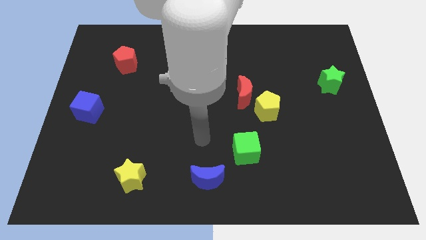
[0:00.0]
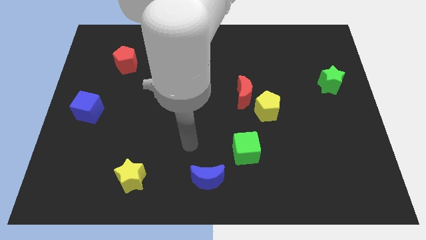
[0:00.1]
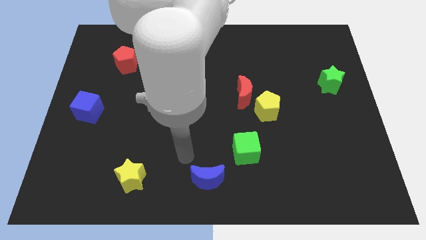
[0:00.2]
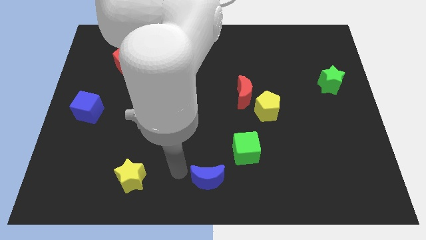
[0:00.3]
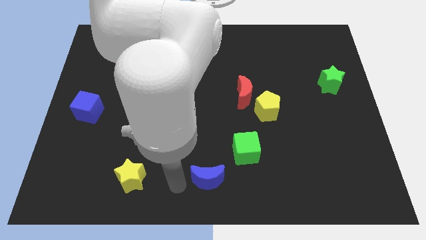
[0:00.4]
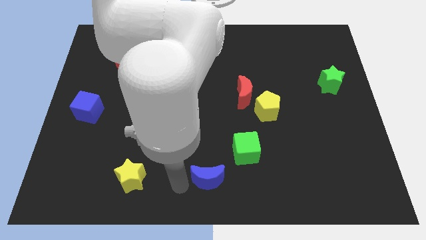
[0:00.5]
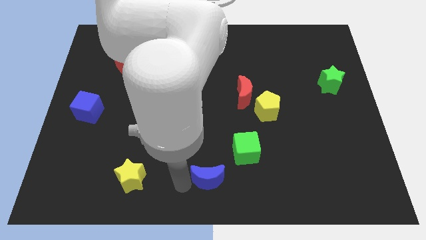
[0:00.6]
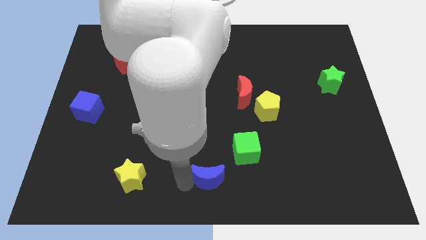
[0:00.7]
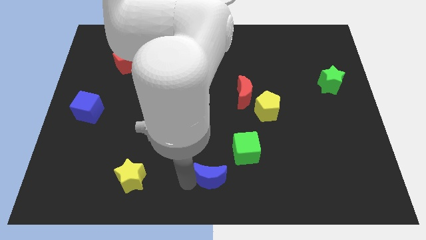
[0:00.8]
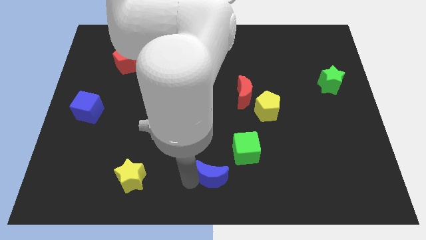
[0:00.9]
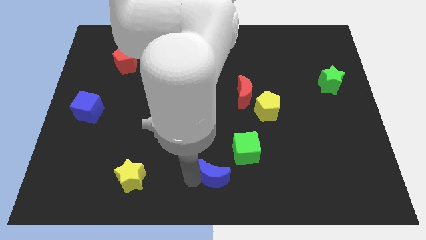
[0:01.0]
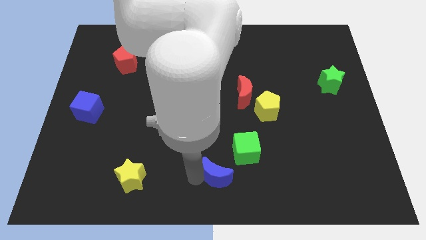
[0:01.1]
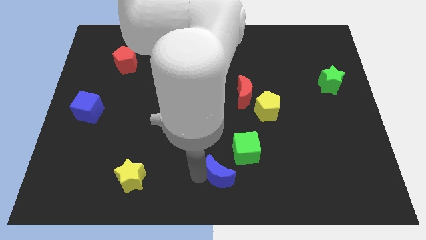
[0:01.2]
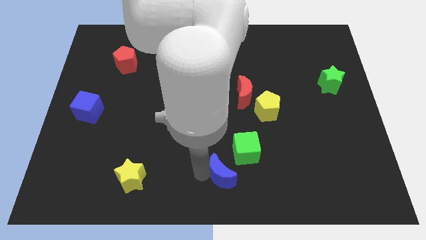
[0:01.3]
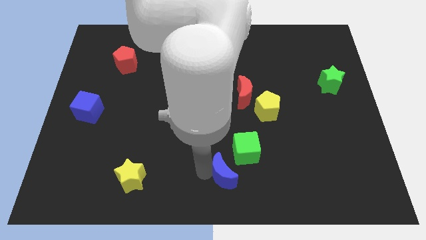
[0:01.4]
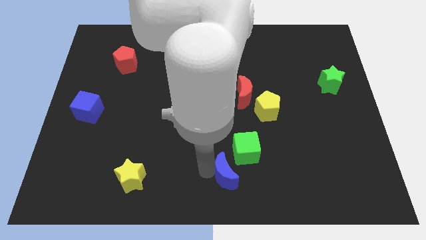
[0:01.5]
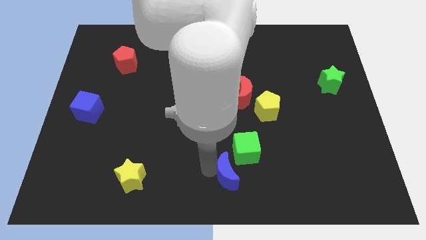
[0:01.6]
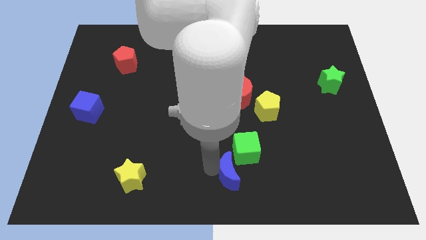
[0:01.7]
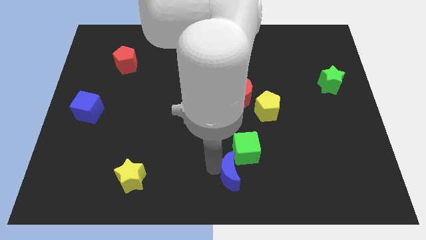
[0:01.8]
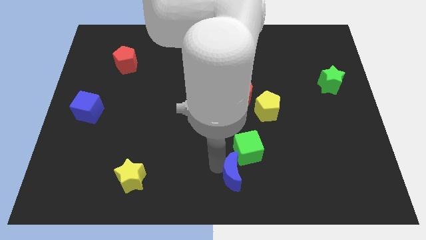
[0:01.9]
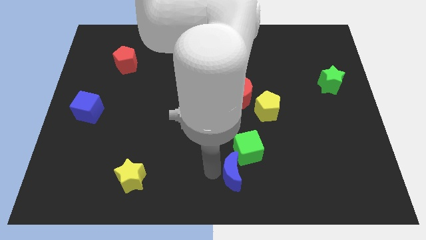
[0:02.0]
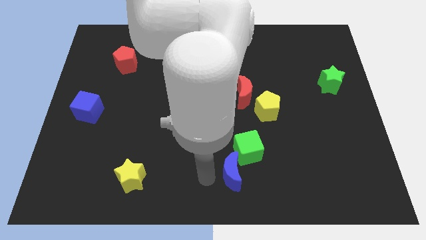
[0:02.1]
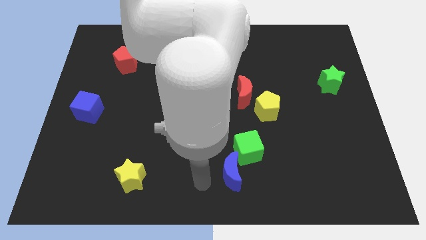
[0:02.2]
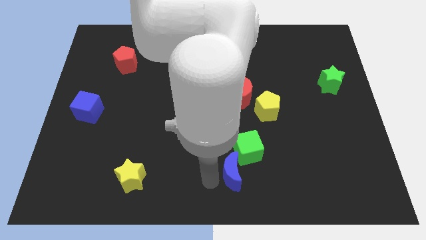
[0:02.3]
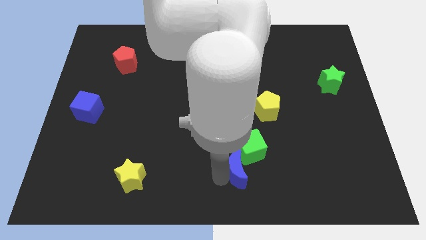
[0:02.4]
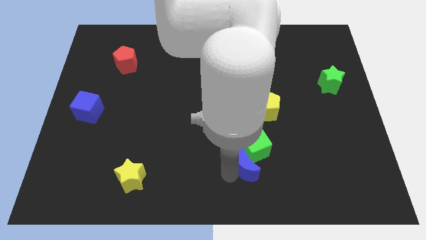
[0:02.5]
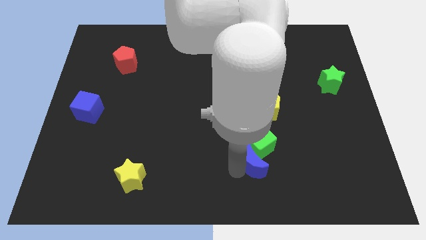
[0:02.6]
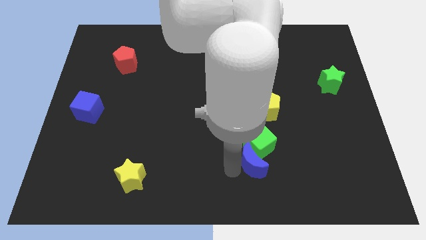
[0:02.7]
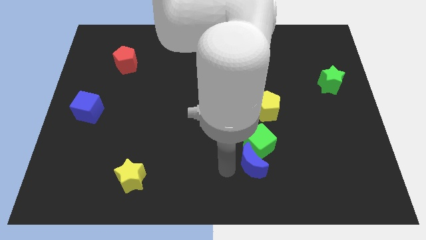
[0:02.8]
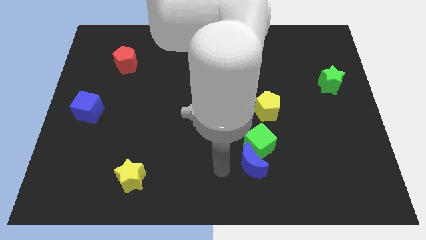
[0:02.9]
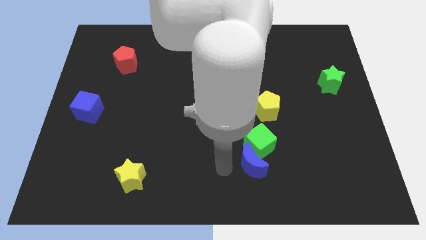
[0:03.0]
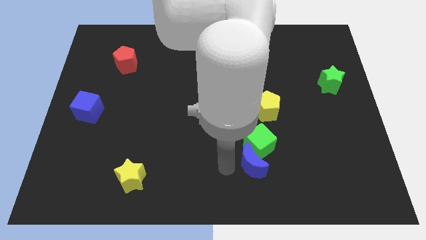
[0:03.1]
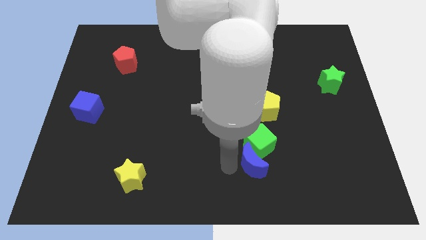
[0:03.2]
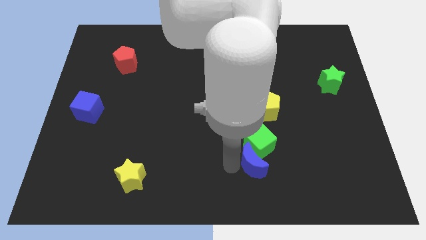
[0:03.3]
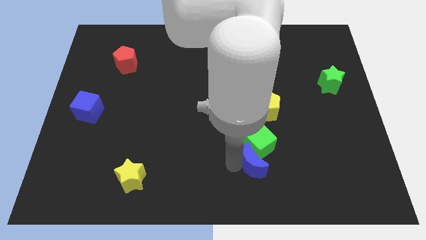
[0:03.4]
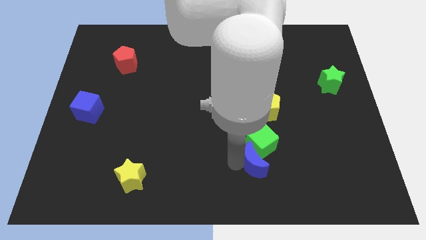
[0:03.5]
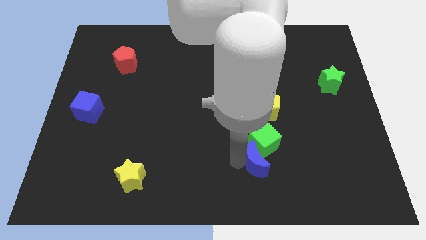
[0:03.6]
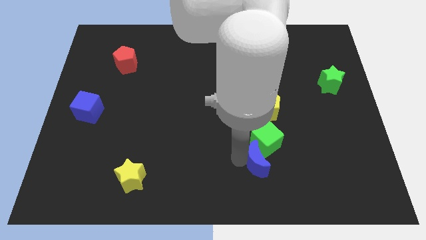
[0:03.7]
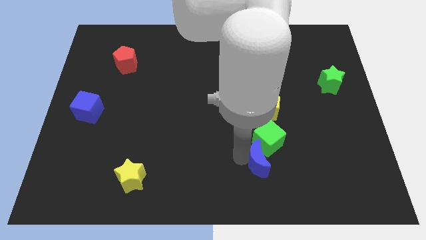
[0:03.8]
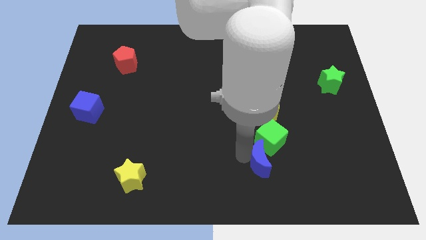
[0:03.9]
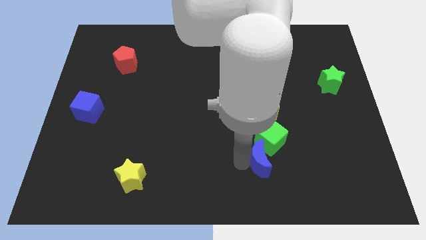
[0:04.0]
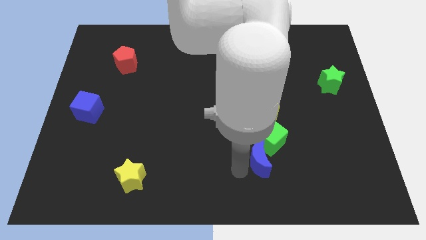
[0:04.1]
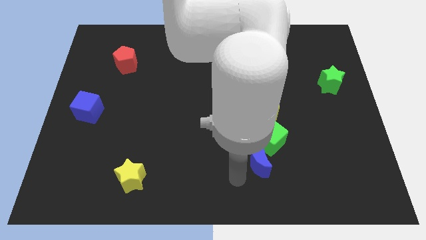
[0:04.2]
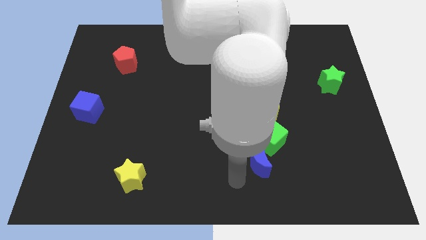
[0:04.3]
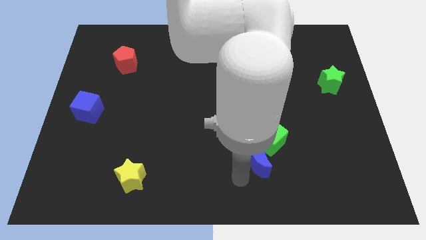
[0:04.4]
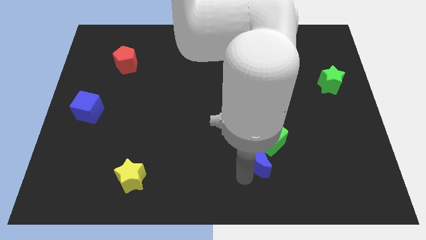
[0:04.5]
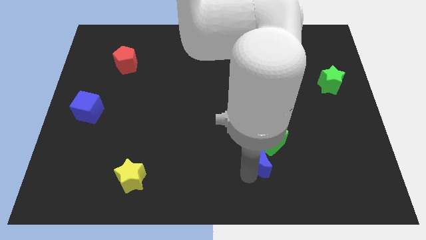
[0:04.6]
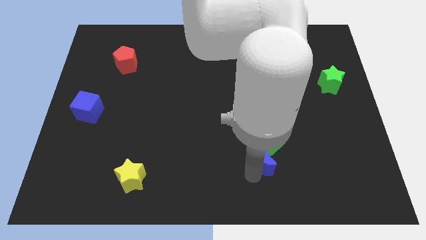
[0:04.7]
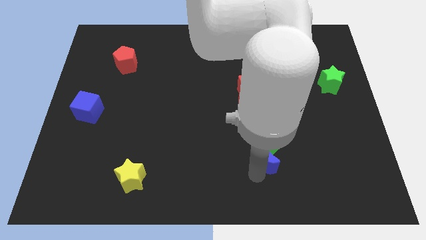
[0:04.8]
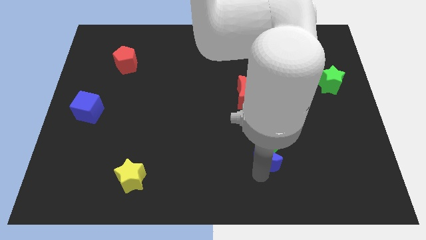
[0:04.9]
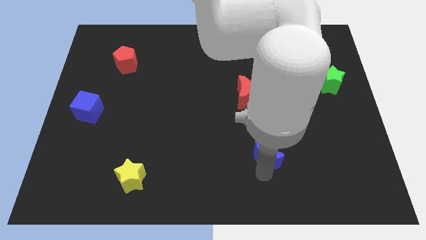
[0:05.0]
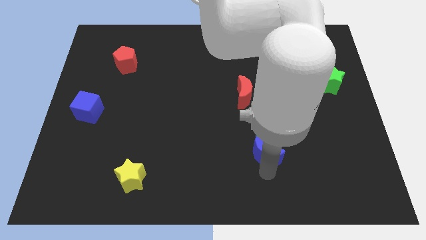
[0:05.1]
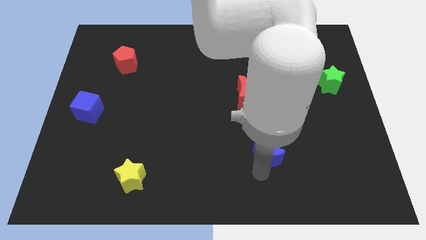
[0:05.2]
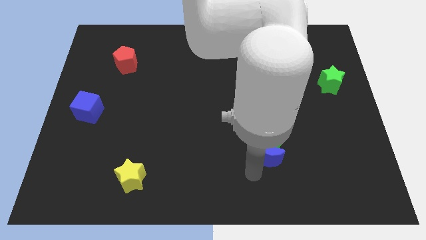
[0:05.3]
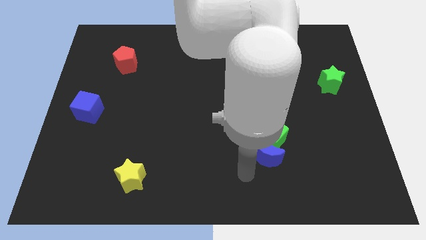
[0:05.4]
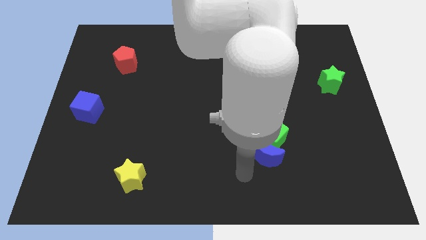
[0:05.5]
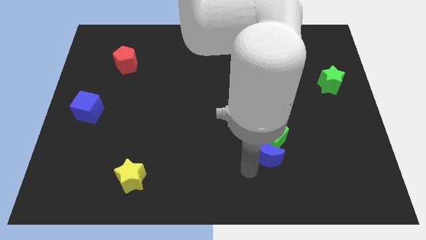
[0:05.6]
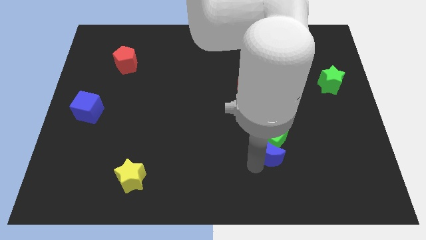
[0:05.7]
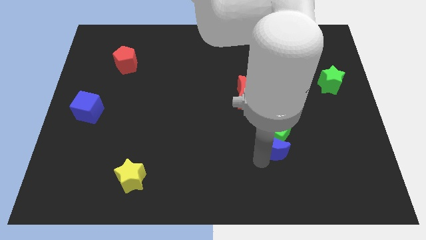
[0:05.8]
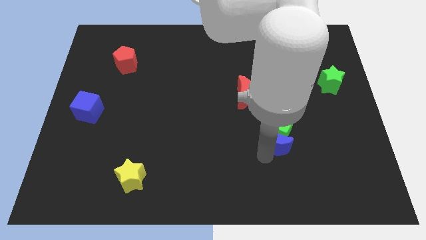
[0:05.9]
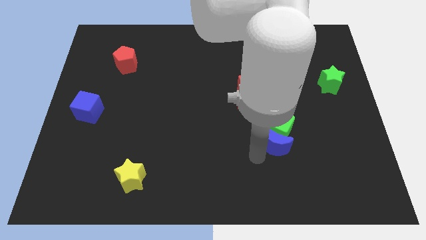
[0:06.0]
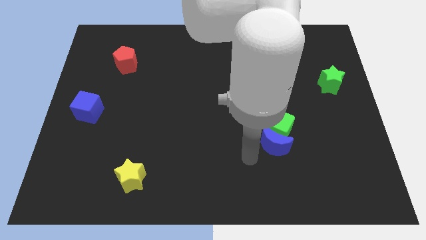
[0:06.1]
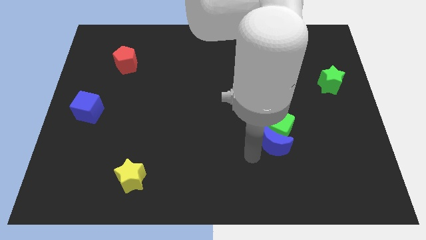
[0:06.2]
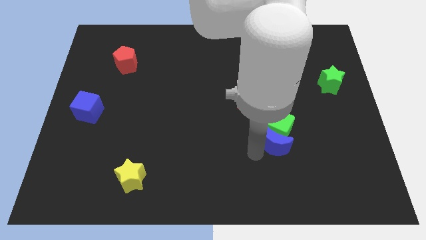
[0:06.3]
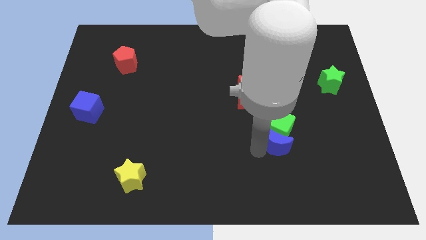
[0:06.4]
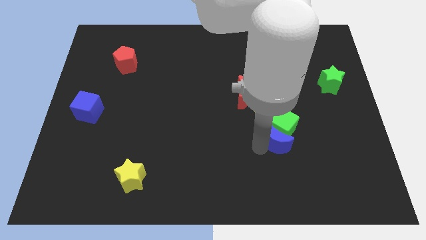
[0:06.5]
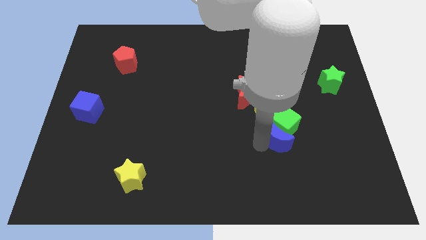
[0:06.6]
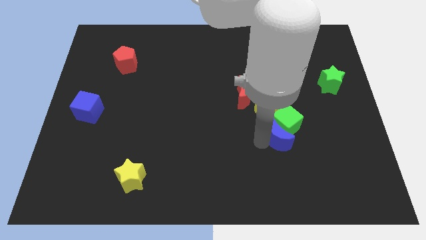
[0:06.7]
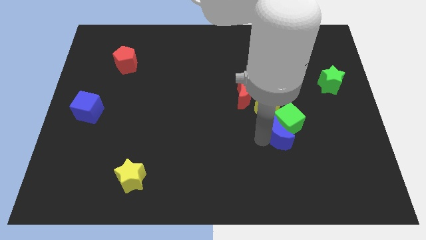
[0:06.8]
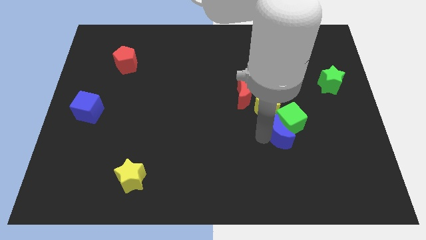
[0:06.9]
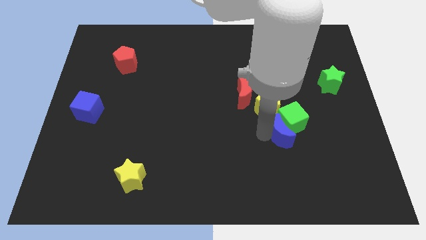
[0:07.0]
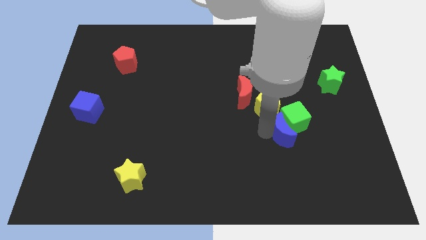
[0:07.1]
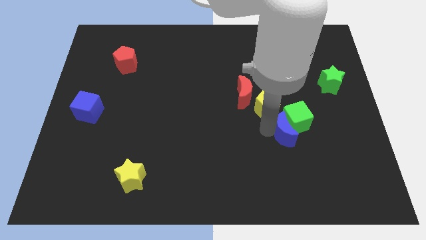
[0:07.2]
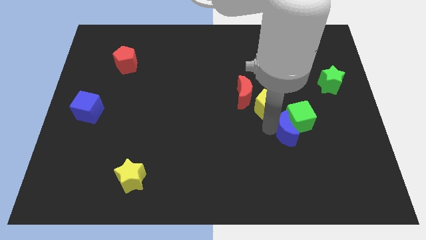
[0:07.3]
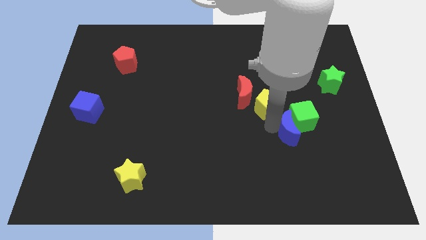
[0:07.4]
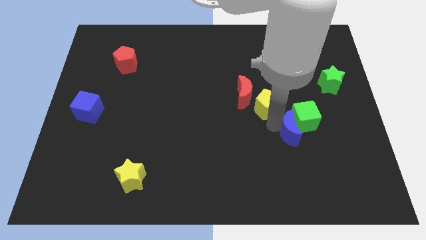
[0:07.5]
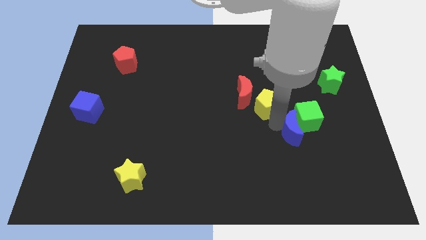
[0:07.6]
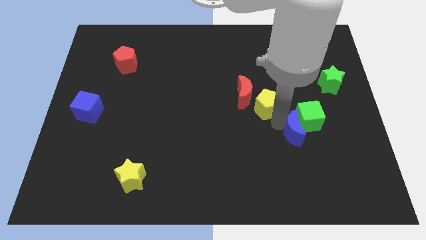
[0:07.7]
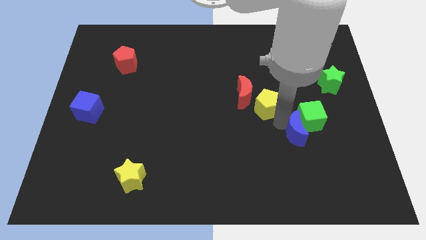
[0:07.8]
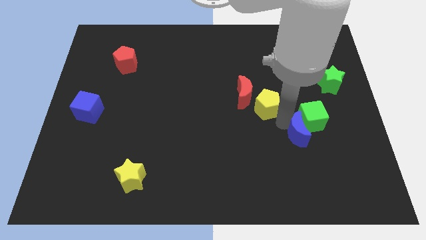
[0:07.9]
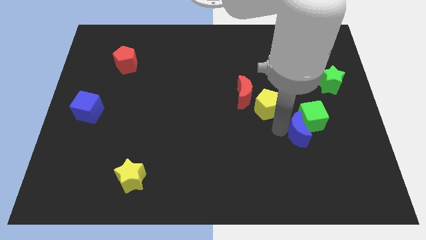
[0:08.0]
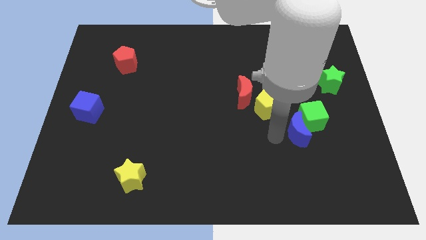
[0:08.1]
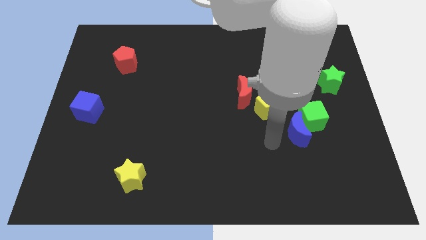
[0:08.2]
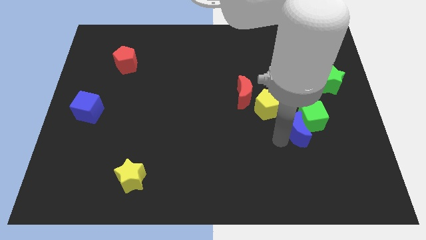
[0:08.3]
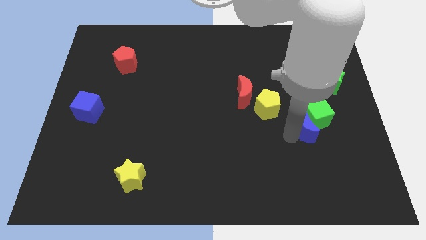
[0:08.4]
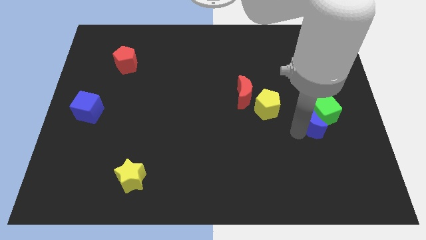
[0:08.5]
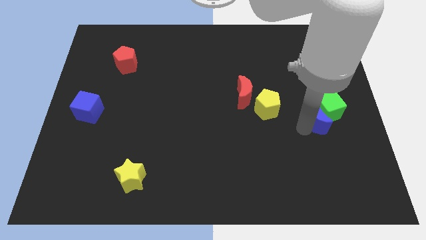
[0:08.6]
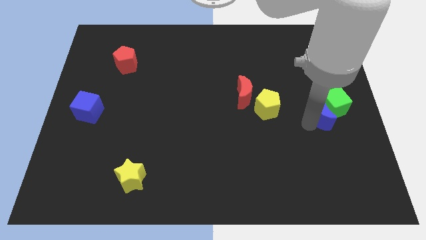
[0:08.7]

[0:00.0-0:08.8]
put the blue moon to the bottom side of the green star
